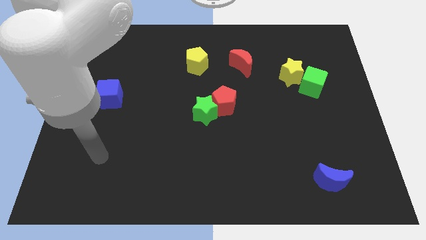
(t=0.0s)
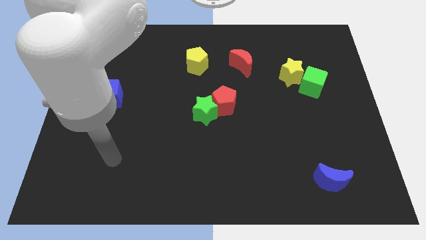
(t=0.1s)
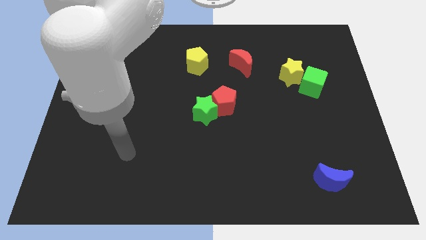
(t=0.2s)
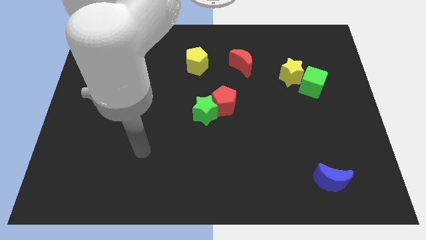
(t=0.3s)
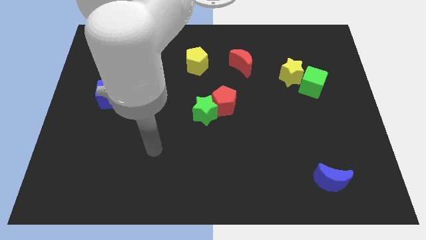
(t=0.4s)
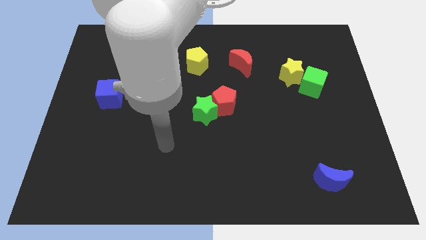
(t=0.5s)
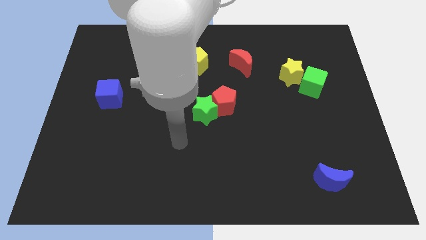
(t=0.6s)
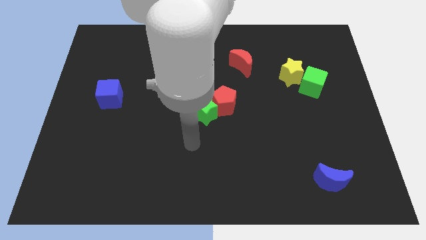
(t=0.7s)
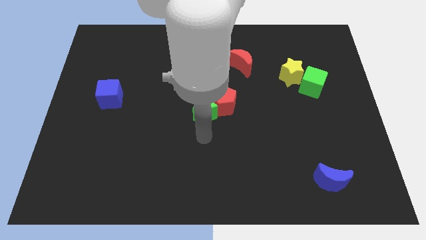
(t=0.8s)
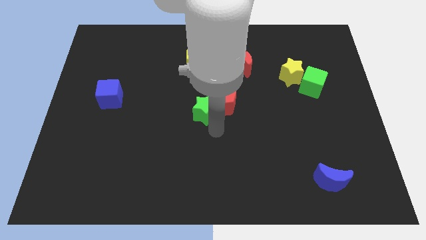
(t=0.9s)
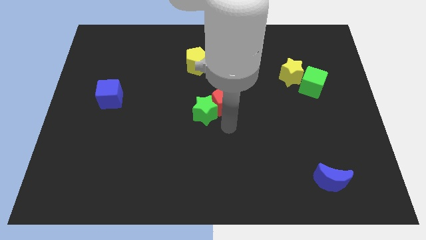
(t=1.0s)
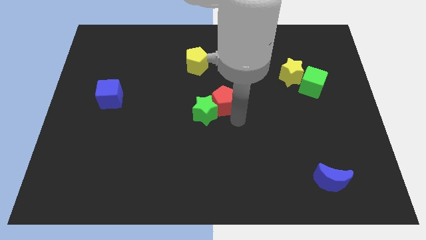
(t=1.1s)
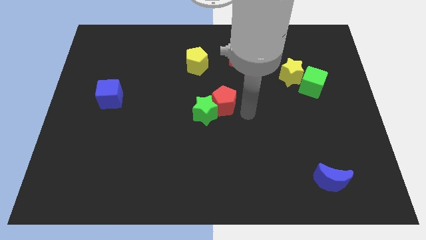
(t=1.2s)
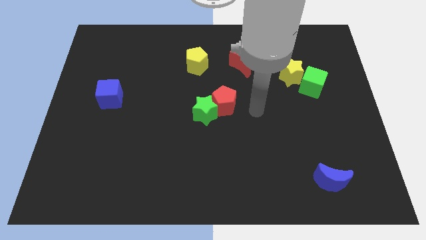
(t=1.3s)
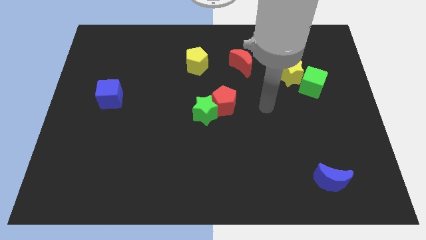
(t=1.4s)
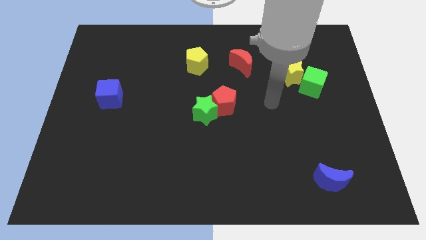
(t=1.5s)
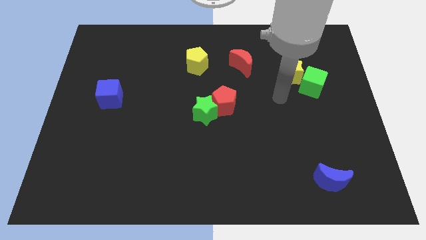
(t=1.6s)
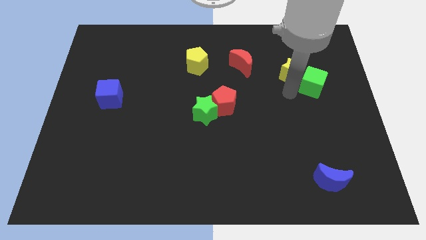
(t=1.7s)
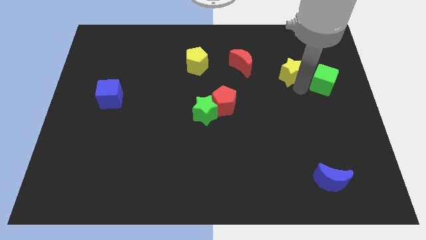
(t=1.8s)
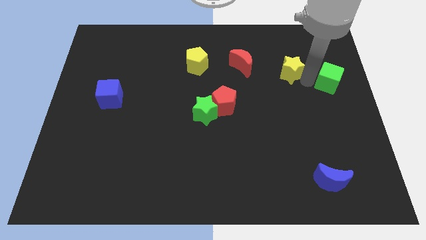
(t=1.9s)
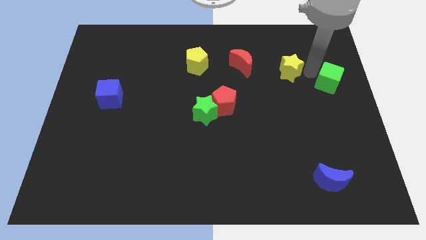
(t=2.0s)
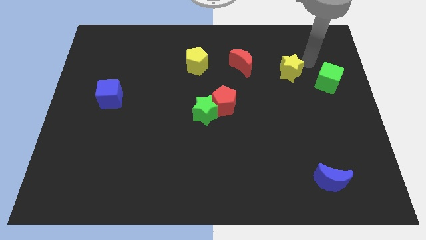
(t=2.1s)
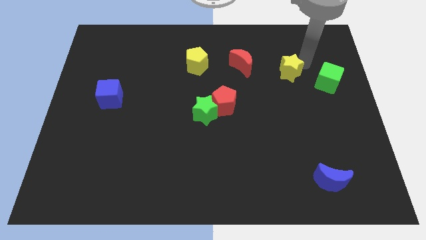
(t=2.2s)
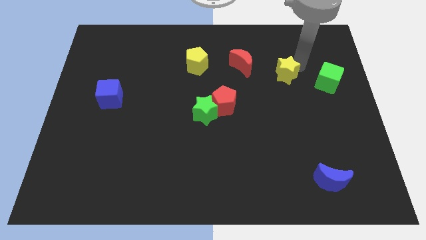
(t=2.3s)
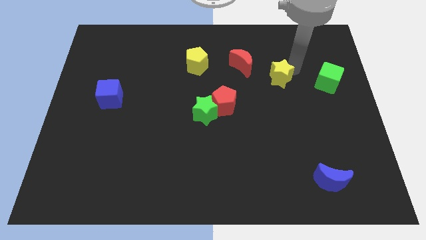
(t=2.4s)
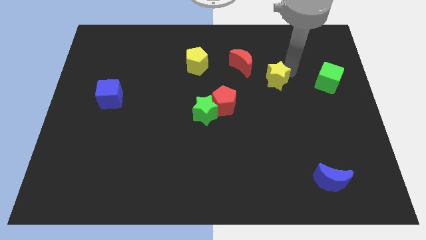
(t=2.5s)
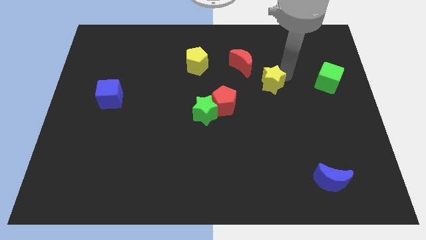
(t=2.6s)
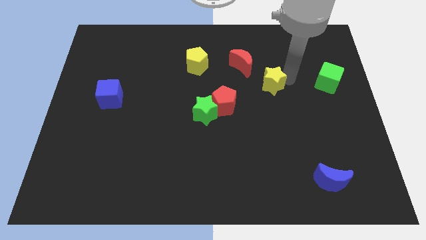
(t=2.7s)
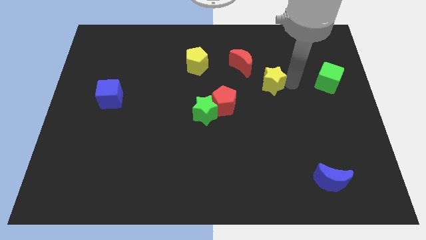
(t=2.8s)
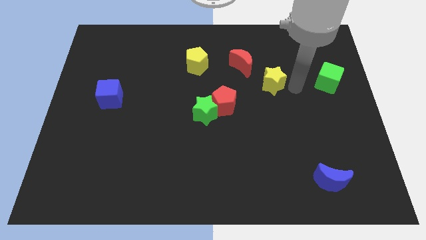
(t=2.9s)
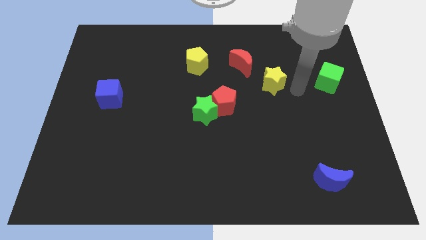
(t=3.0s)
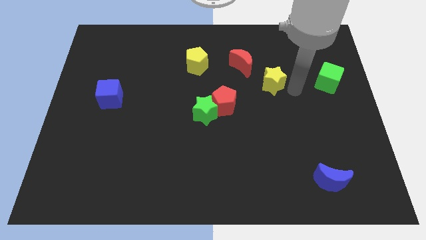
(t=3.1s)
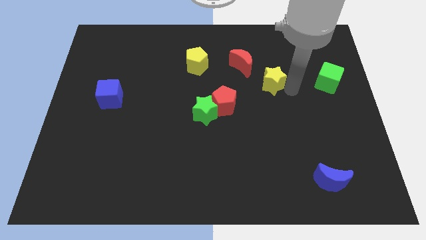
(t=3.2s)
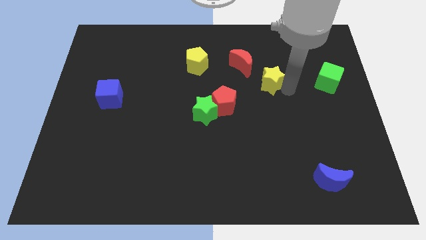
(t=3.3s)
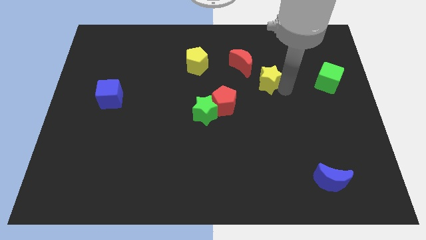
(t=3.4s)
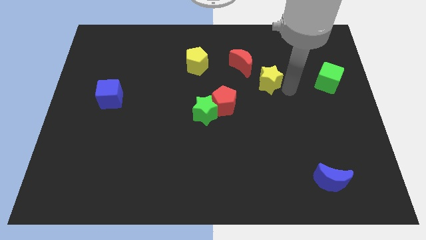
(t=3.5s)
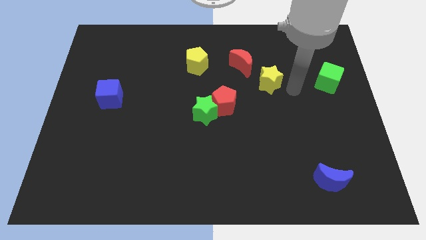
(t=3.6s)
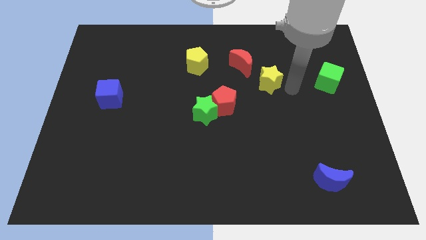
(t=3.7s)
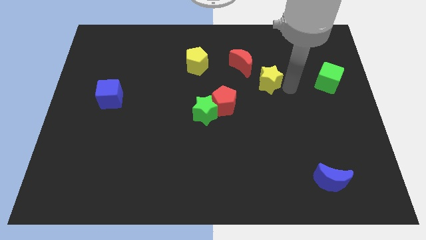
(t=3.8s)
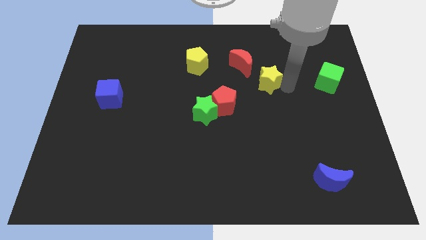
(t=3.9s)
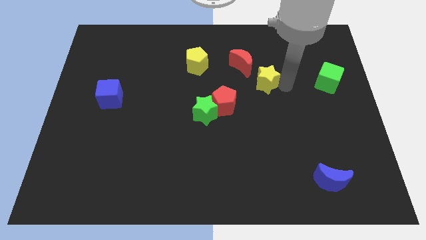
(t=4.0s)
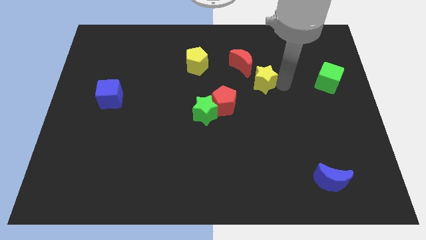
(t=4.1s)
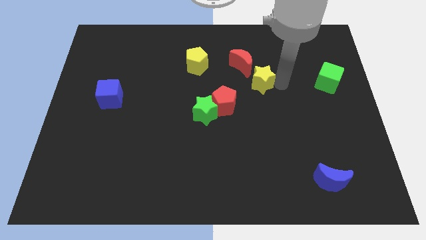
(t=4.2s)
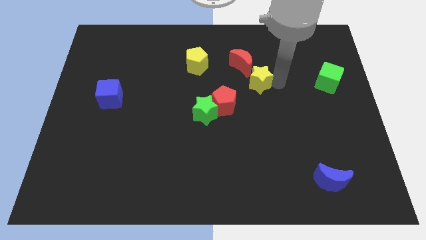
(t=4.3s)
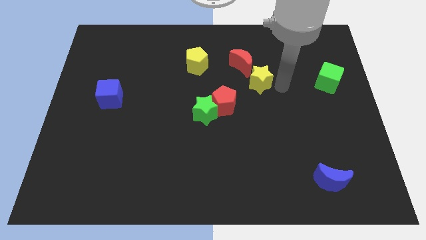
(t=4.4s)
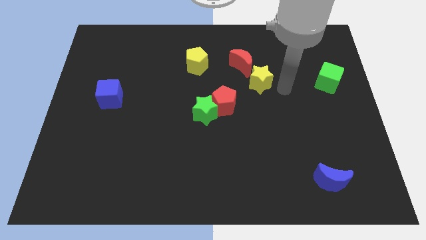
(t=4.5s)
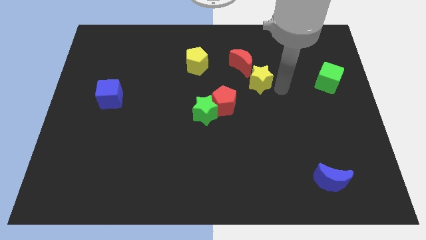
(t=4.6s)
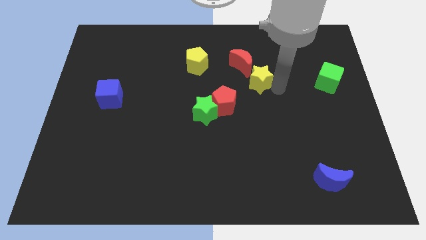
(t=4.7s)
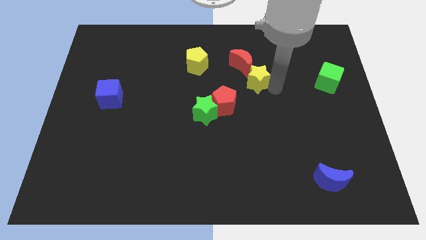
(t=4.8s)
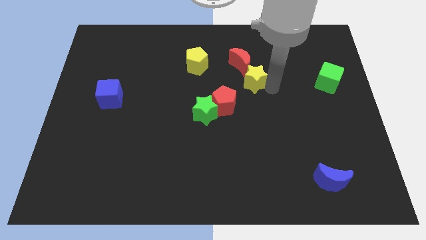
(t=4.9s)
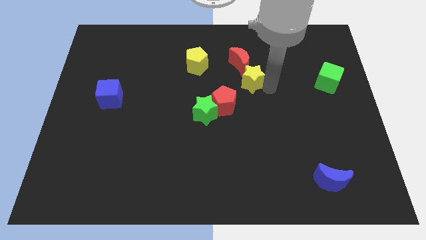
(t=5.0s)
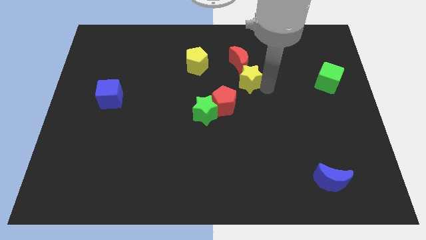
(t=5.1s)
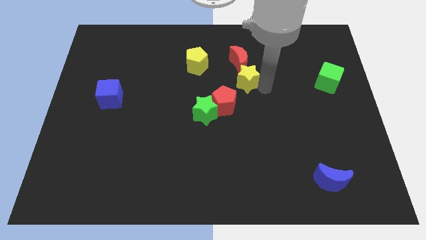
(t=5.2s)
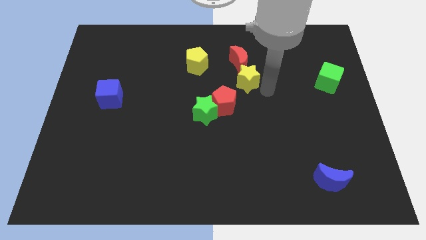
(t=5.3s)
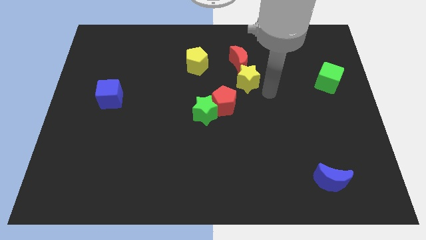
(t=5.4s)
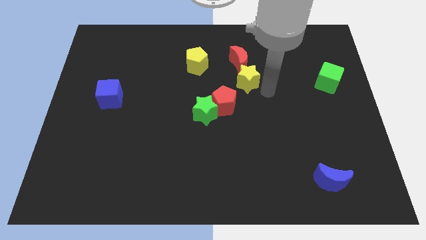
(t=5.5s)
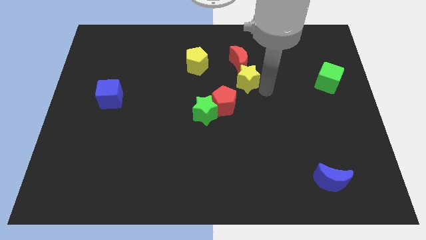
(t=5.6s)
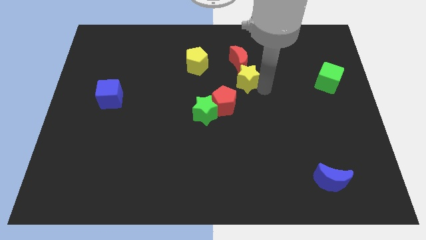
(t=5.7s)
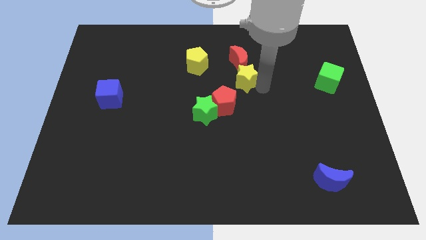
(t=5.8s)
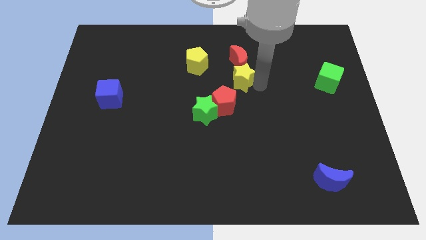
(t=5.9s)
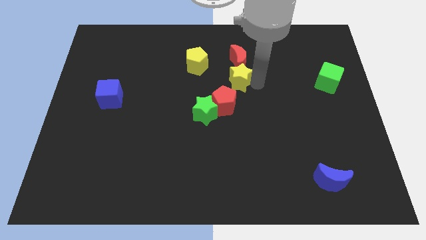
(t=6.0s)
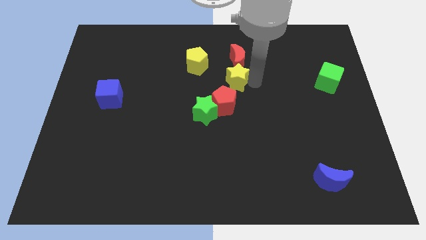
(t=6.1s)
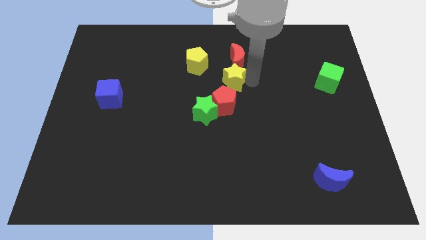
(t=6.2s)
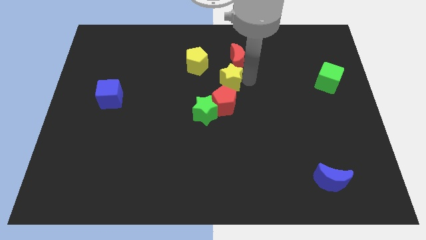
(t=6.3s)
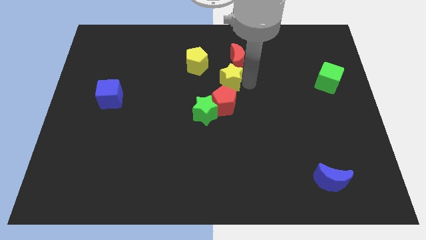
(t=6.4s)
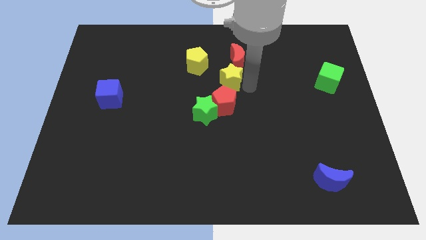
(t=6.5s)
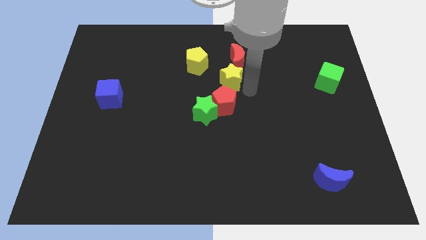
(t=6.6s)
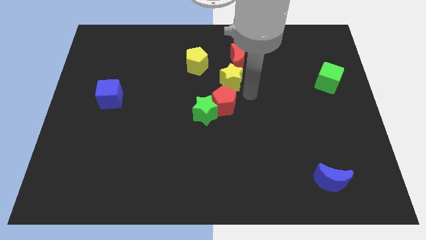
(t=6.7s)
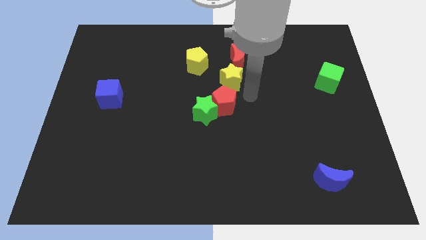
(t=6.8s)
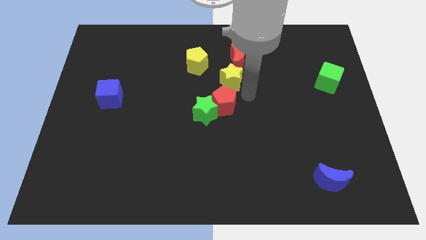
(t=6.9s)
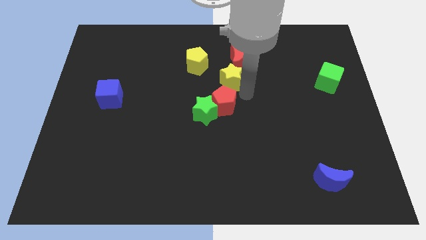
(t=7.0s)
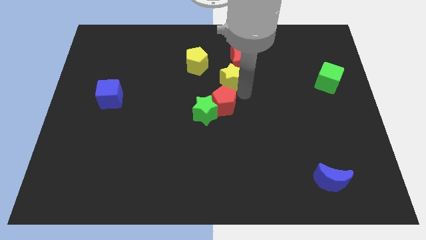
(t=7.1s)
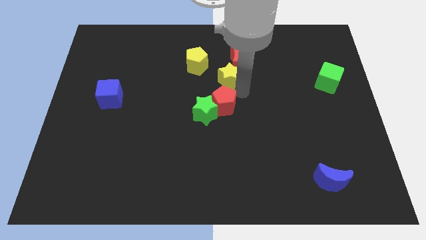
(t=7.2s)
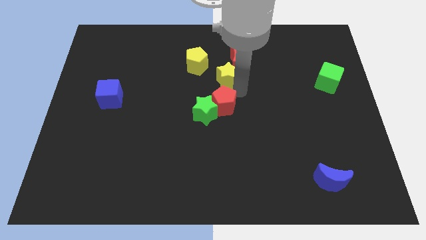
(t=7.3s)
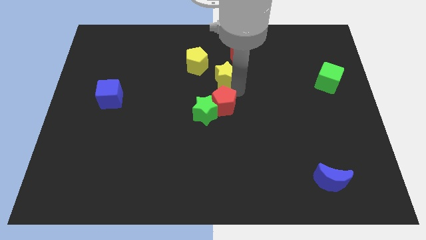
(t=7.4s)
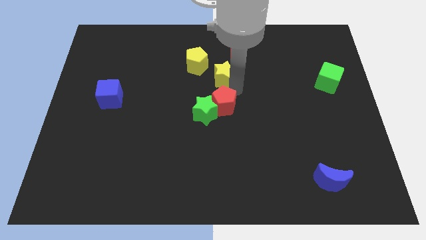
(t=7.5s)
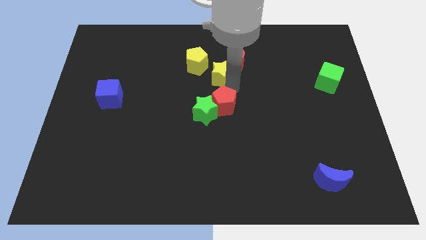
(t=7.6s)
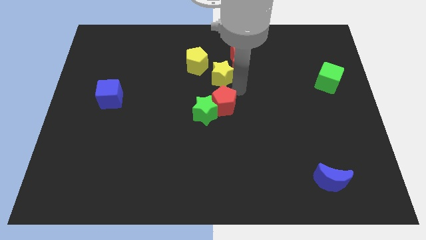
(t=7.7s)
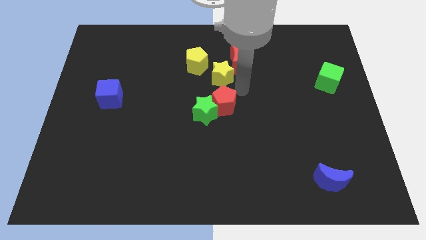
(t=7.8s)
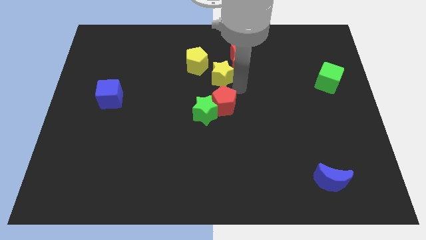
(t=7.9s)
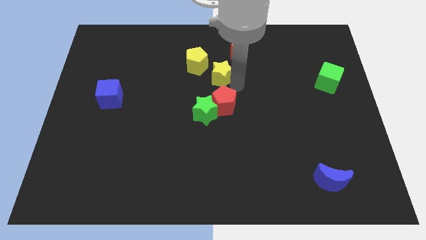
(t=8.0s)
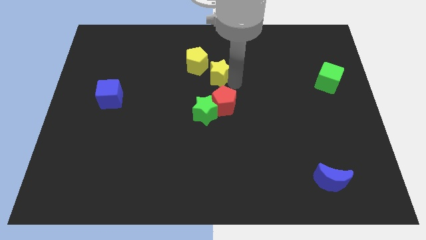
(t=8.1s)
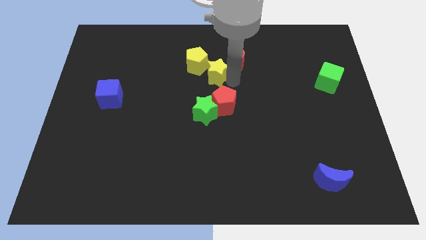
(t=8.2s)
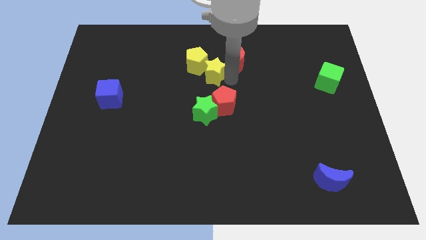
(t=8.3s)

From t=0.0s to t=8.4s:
move the yellow star close to the yellow pentagon
